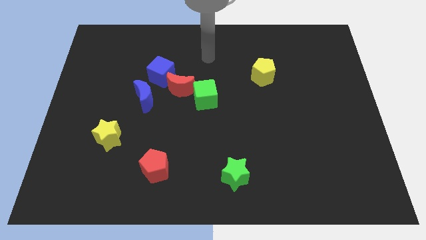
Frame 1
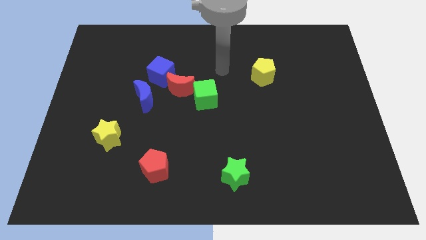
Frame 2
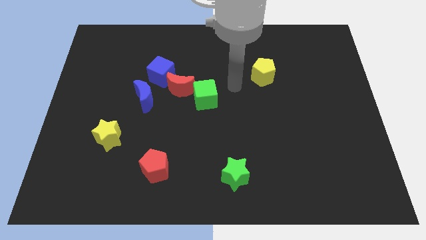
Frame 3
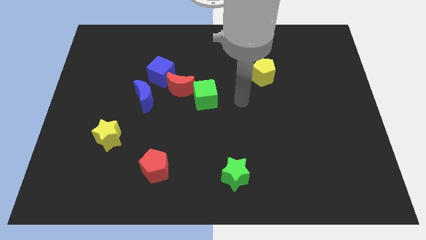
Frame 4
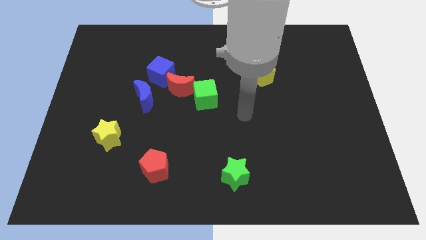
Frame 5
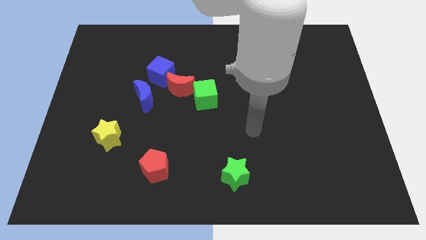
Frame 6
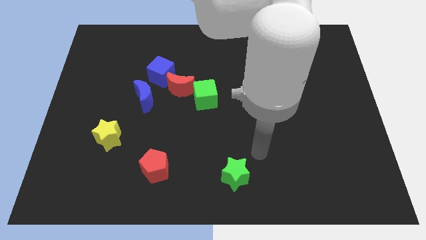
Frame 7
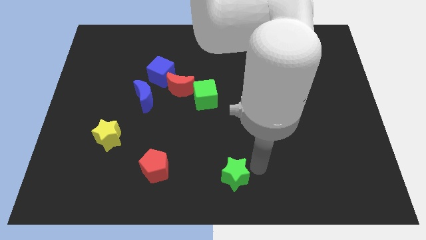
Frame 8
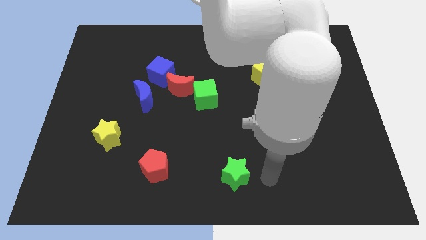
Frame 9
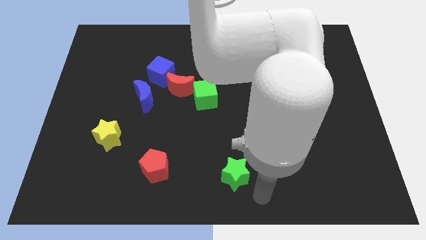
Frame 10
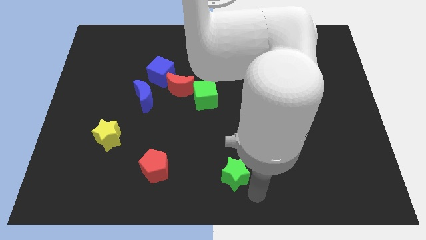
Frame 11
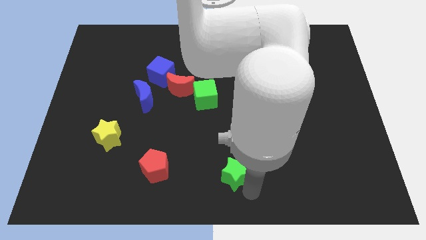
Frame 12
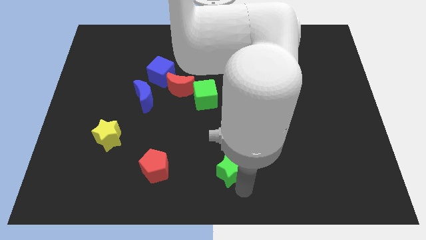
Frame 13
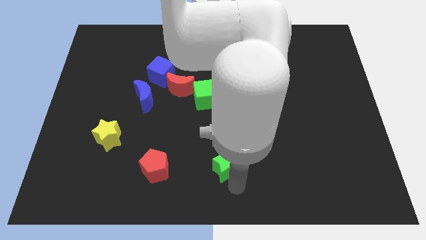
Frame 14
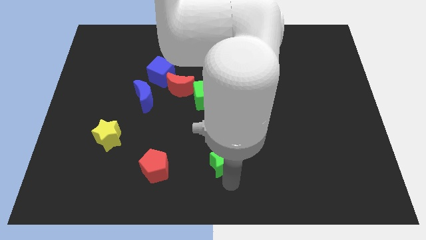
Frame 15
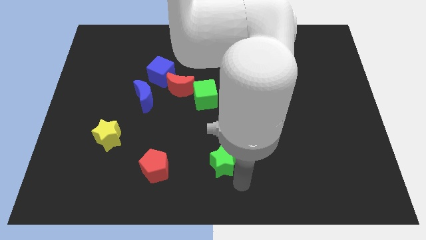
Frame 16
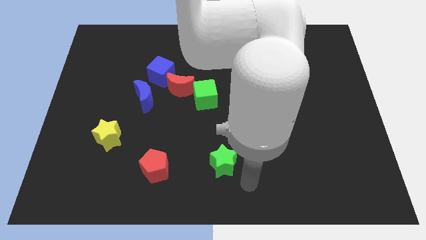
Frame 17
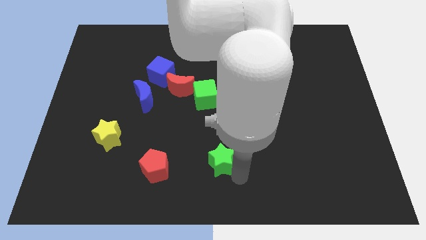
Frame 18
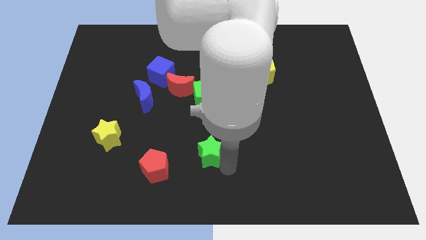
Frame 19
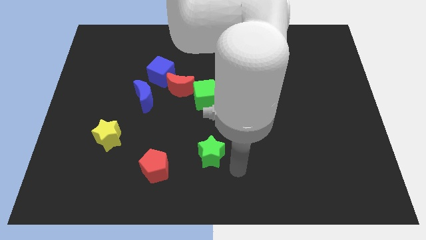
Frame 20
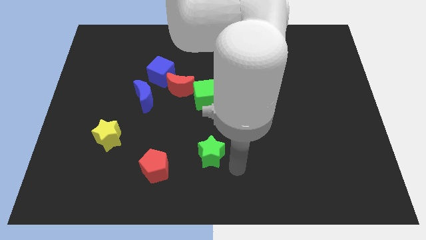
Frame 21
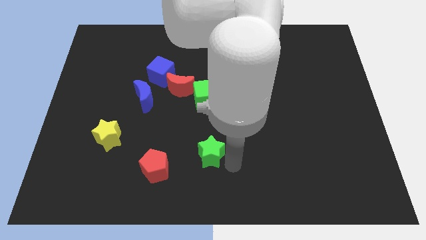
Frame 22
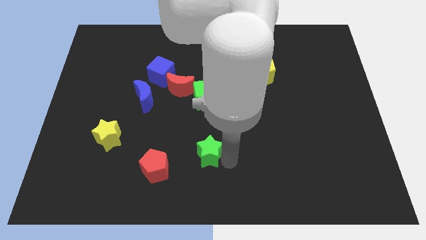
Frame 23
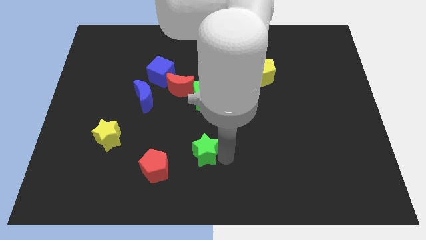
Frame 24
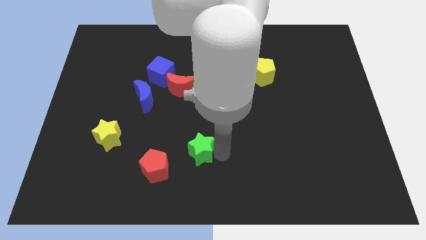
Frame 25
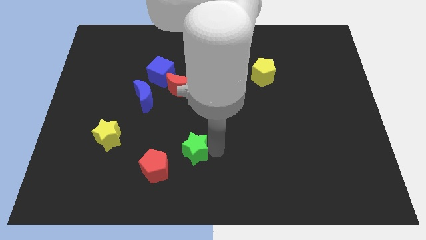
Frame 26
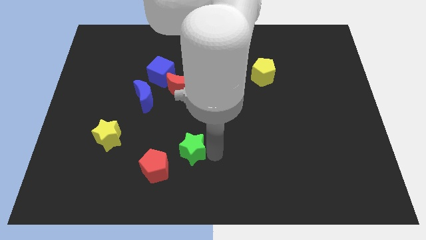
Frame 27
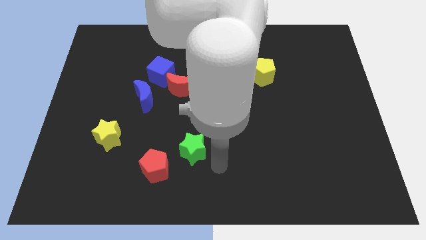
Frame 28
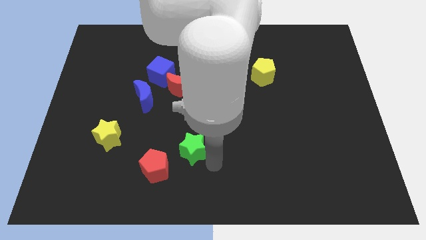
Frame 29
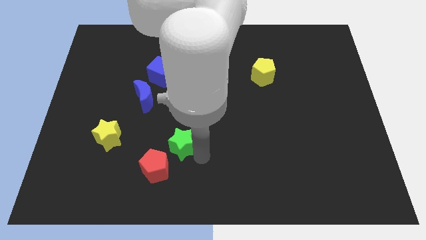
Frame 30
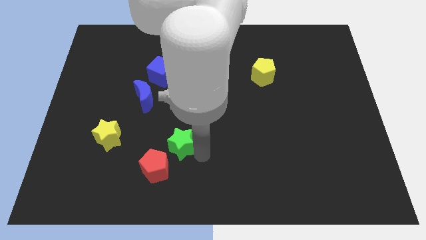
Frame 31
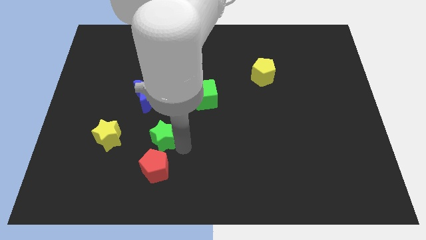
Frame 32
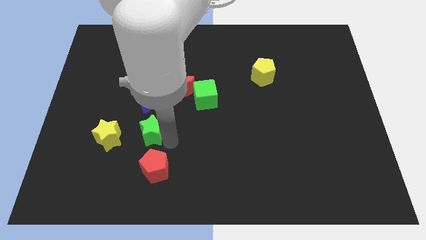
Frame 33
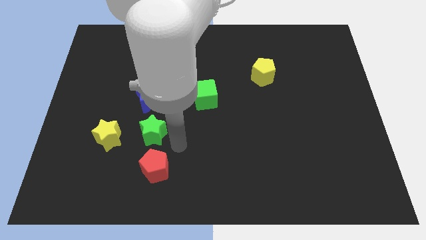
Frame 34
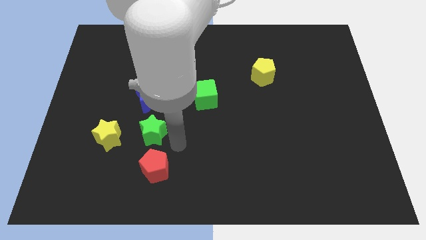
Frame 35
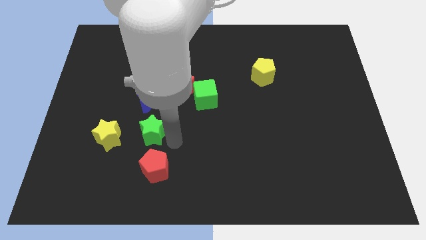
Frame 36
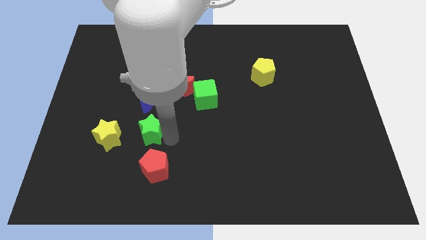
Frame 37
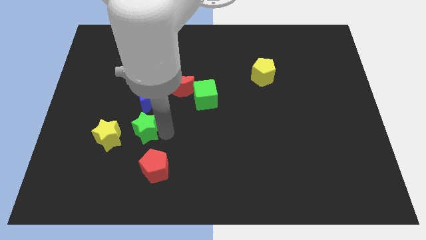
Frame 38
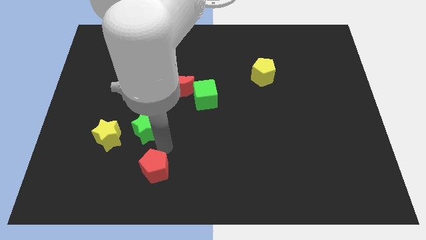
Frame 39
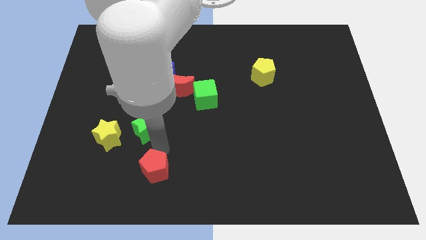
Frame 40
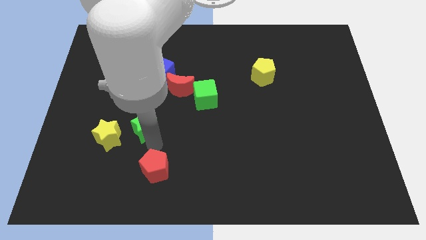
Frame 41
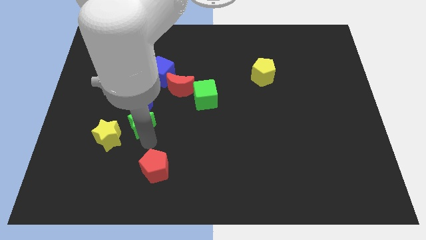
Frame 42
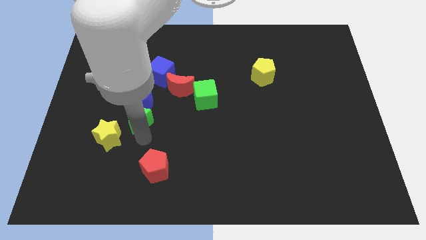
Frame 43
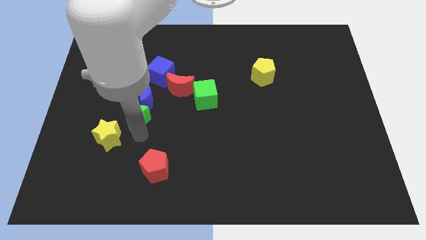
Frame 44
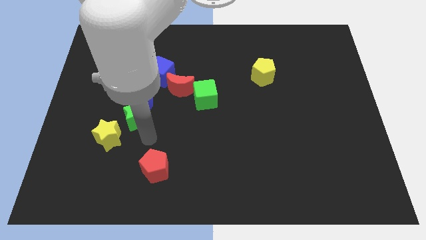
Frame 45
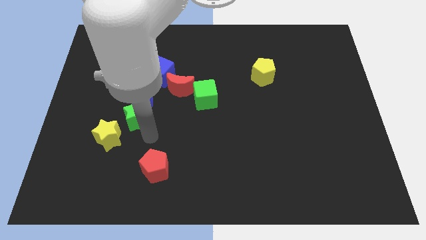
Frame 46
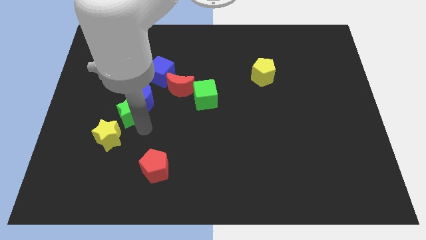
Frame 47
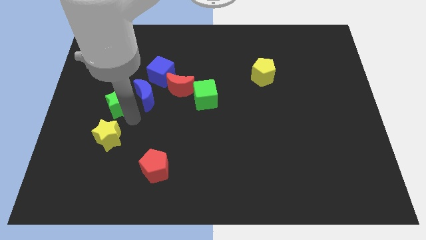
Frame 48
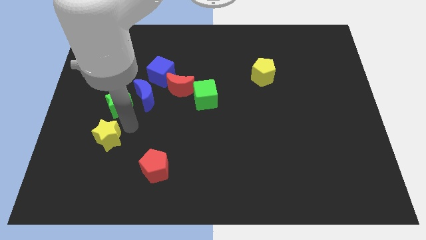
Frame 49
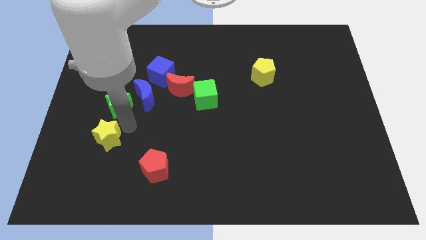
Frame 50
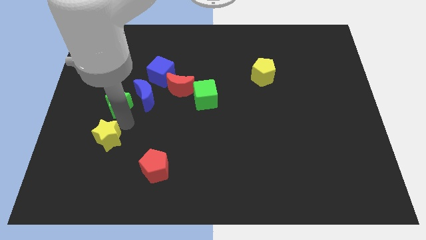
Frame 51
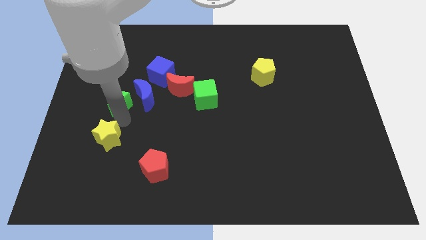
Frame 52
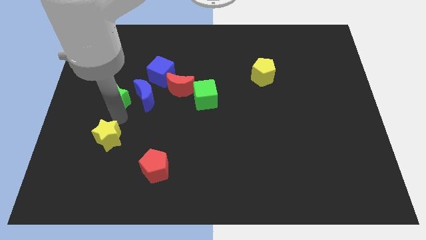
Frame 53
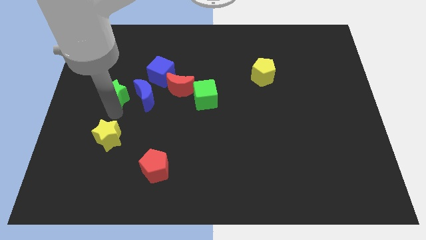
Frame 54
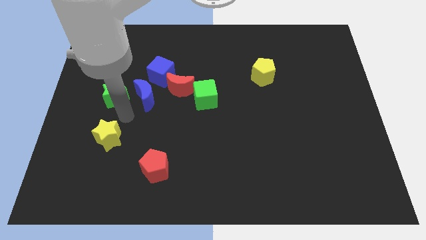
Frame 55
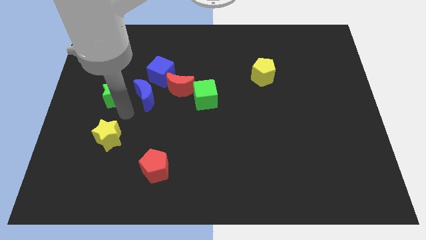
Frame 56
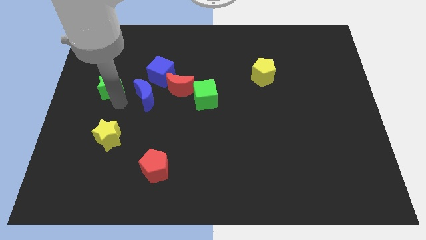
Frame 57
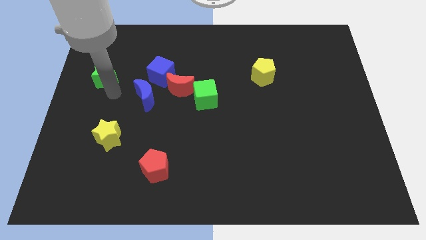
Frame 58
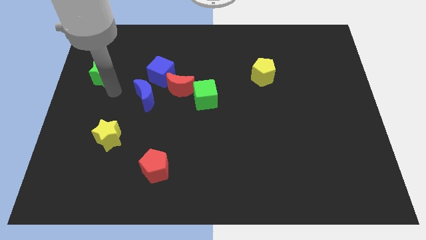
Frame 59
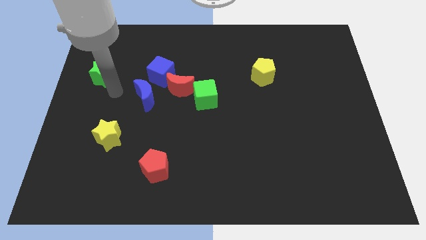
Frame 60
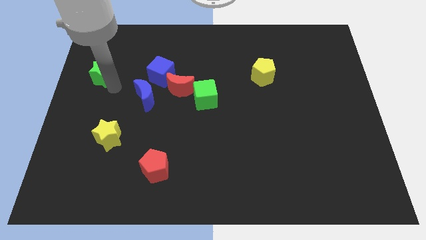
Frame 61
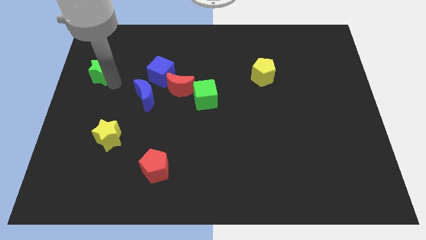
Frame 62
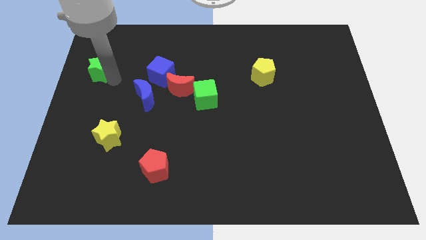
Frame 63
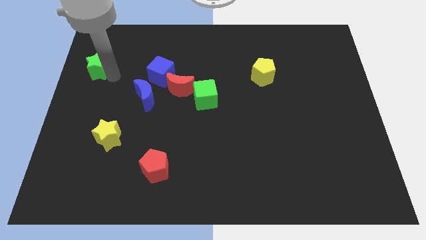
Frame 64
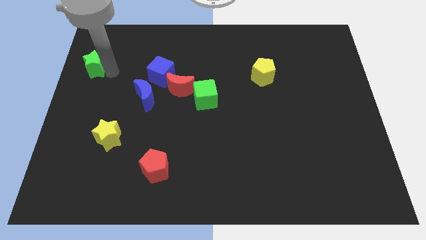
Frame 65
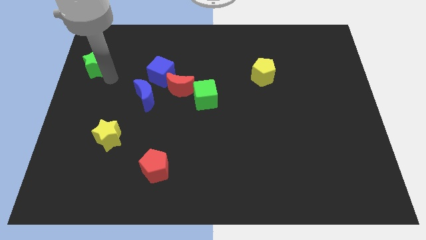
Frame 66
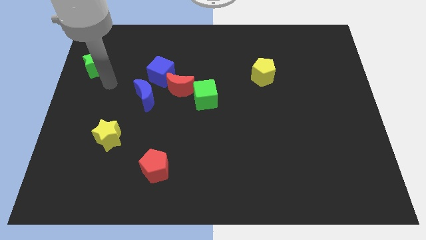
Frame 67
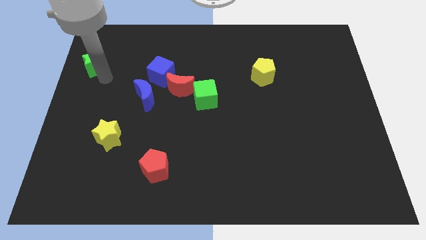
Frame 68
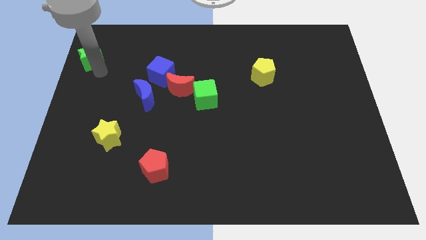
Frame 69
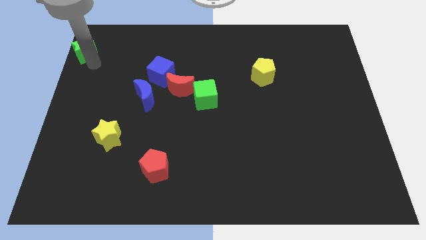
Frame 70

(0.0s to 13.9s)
push the green star to the upper left corner
